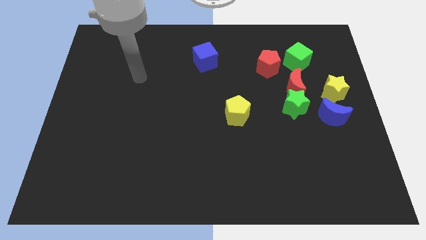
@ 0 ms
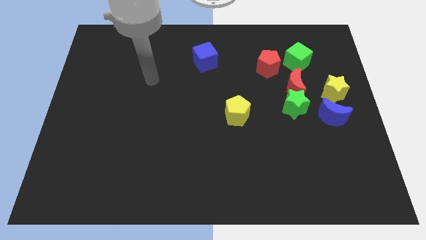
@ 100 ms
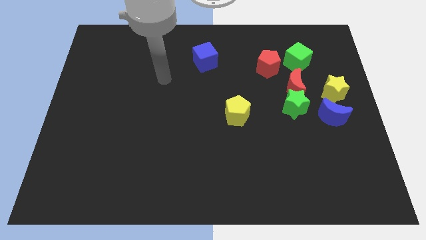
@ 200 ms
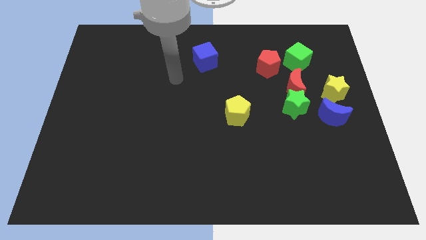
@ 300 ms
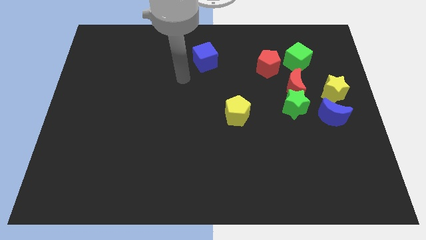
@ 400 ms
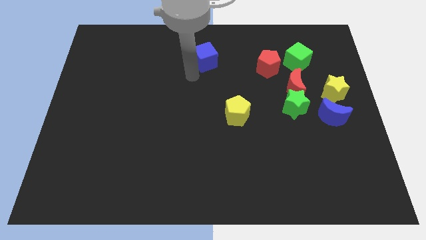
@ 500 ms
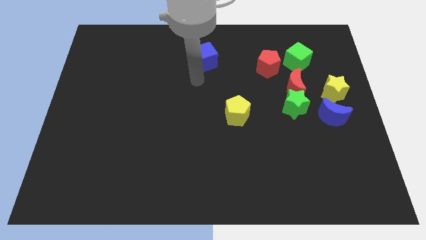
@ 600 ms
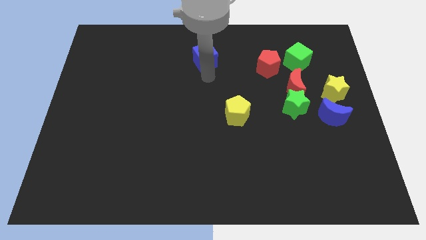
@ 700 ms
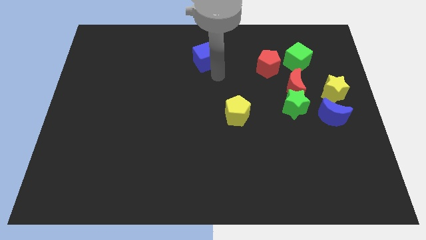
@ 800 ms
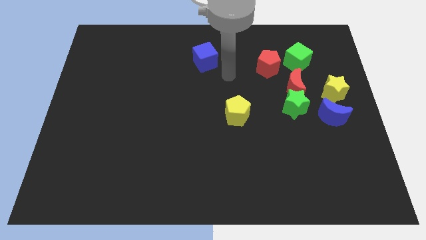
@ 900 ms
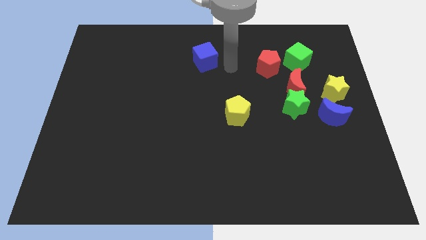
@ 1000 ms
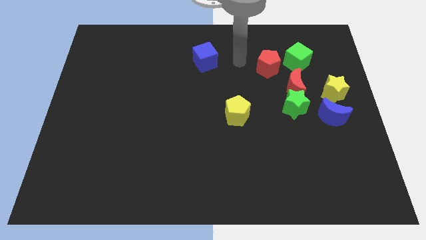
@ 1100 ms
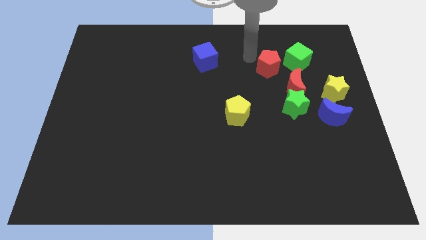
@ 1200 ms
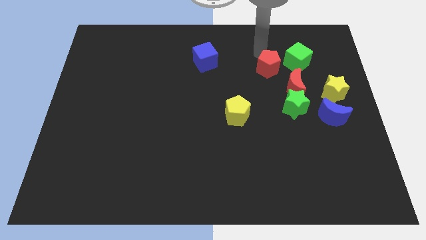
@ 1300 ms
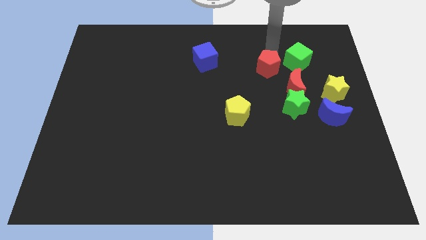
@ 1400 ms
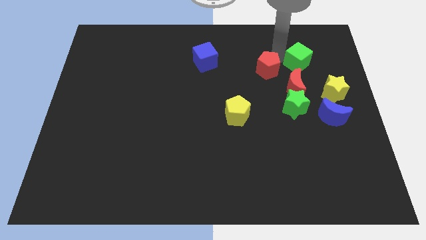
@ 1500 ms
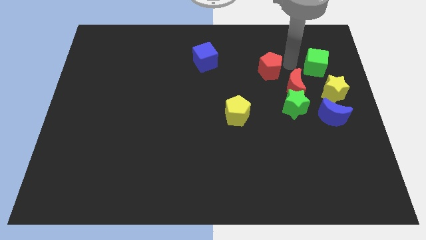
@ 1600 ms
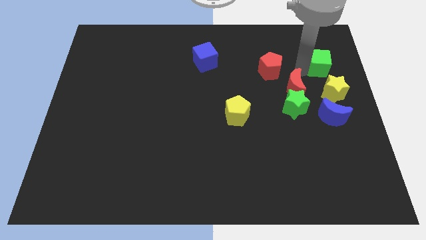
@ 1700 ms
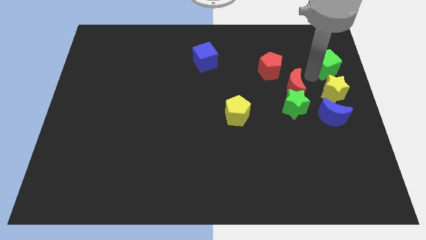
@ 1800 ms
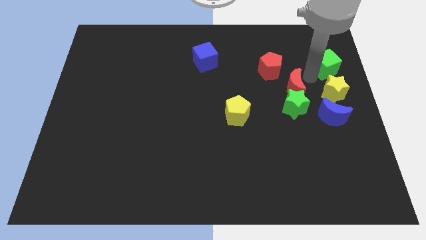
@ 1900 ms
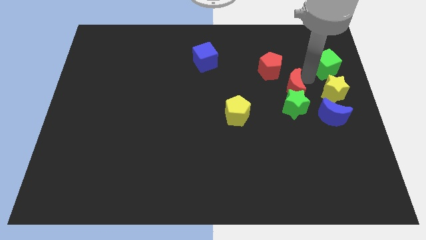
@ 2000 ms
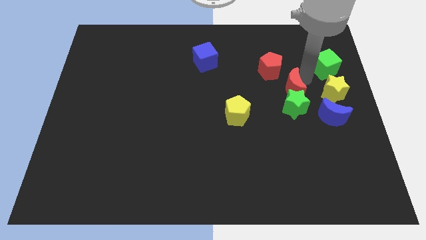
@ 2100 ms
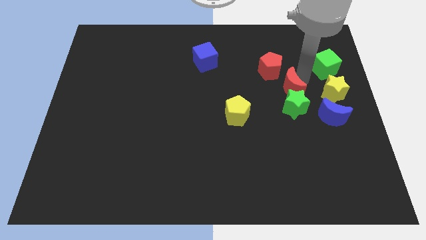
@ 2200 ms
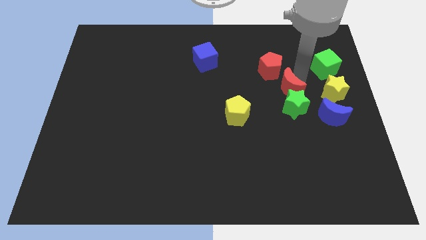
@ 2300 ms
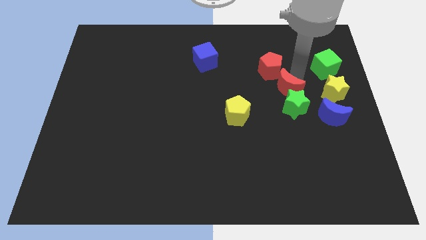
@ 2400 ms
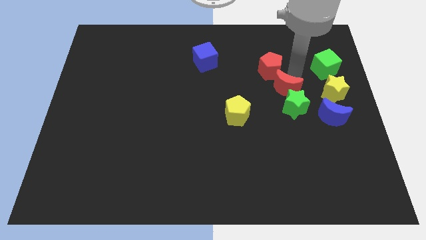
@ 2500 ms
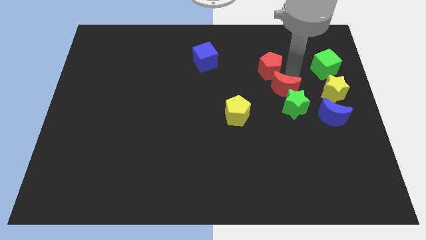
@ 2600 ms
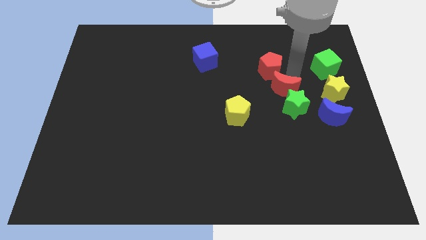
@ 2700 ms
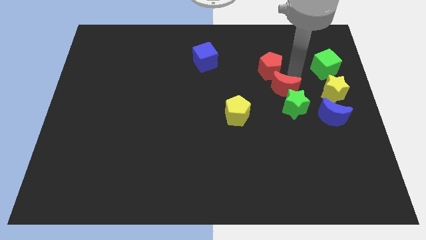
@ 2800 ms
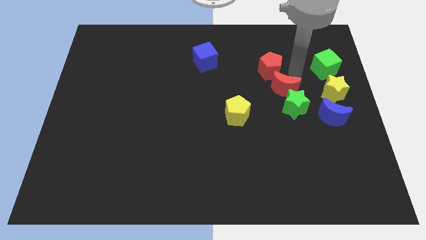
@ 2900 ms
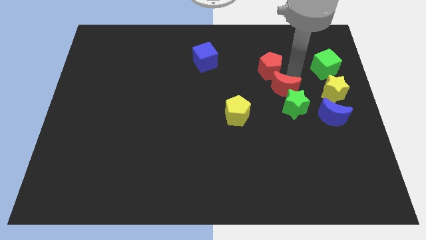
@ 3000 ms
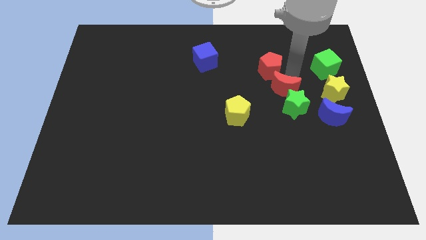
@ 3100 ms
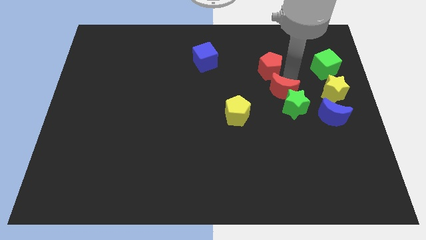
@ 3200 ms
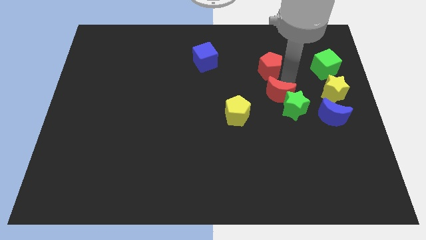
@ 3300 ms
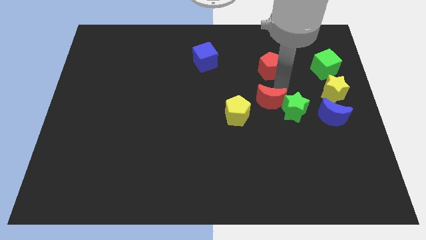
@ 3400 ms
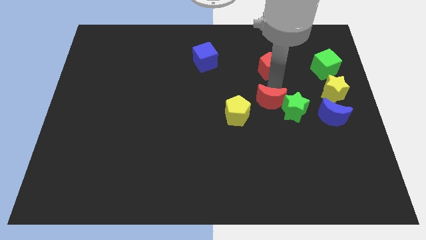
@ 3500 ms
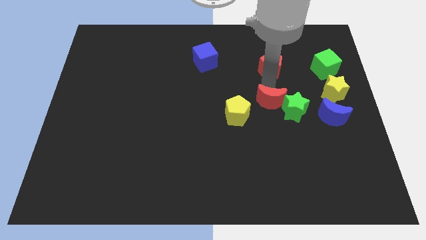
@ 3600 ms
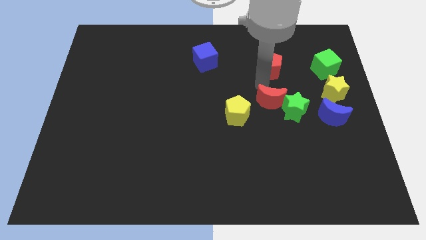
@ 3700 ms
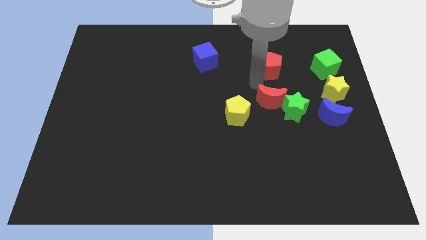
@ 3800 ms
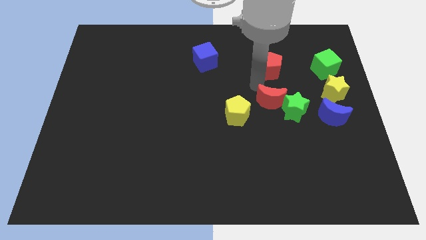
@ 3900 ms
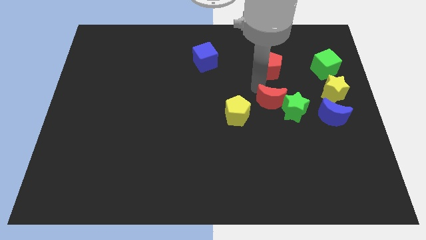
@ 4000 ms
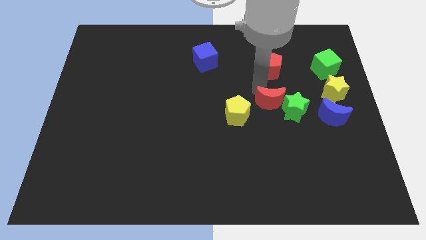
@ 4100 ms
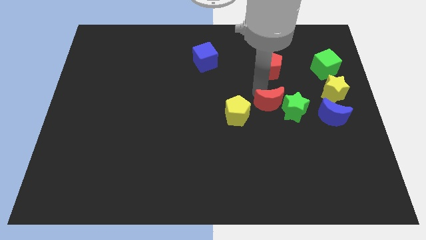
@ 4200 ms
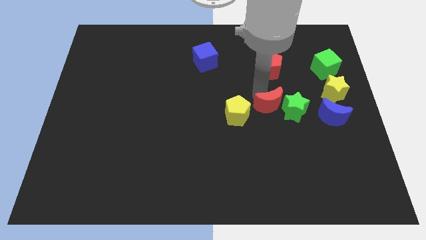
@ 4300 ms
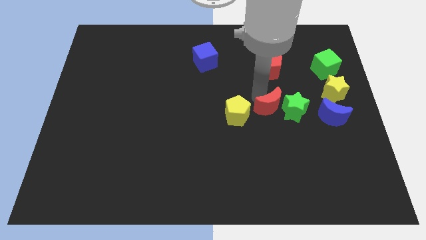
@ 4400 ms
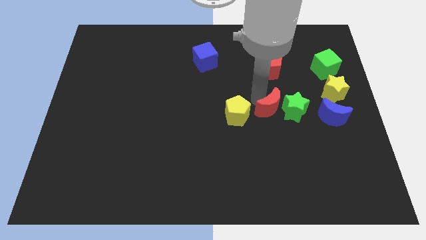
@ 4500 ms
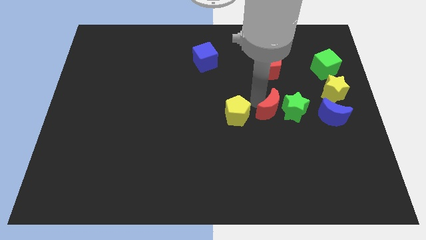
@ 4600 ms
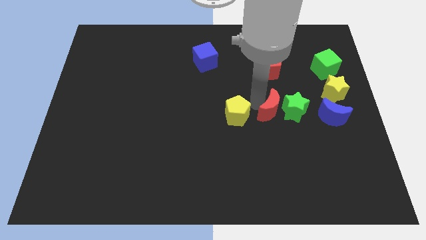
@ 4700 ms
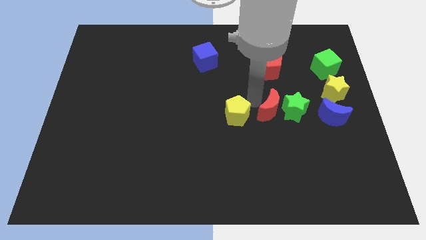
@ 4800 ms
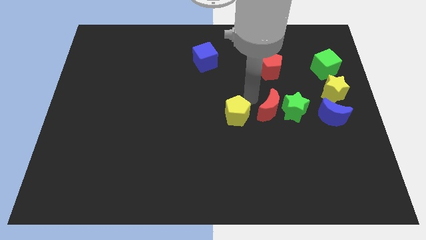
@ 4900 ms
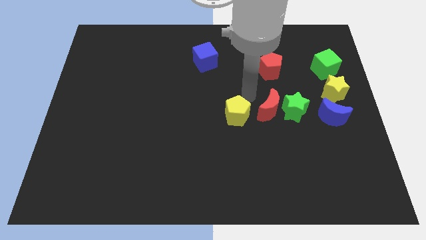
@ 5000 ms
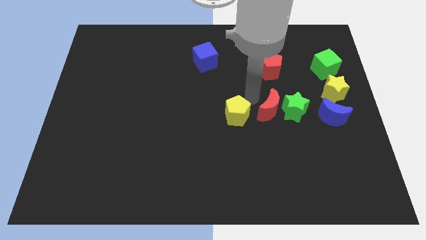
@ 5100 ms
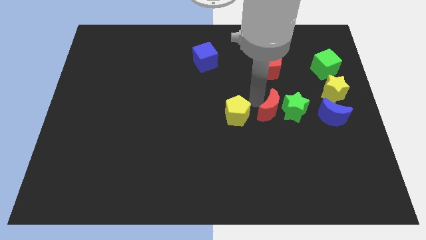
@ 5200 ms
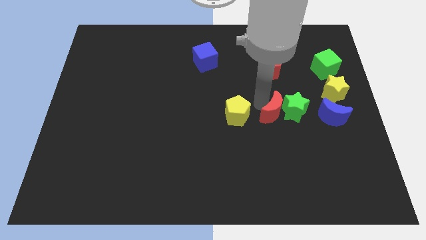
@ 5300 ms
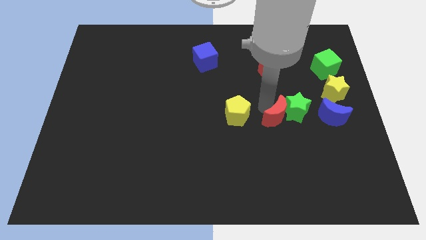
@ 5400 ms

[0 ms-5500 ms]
slightly move the red moon downwards

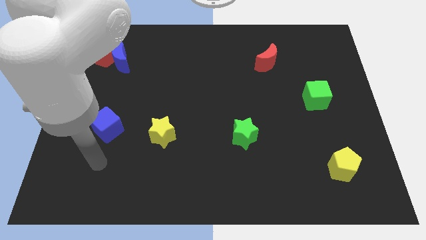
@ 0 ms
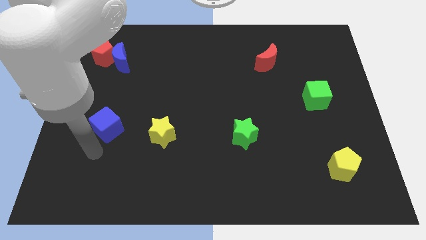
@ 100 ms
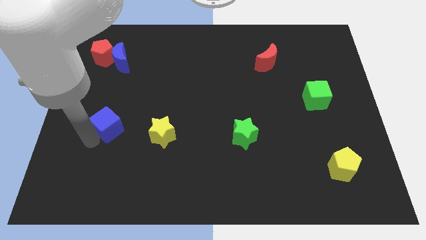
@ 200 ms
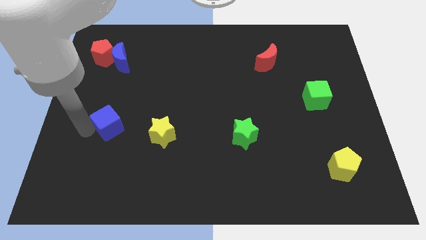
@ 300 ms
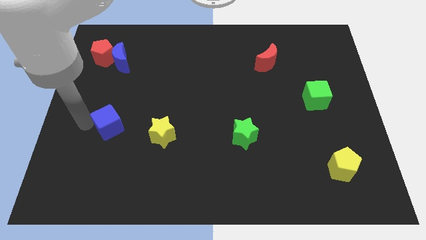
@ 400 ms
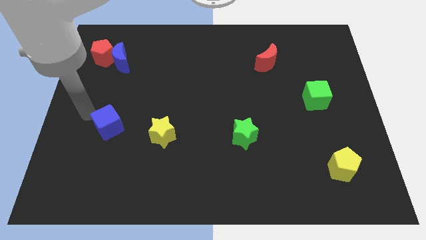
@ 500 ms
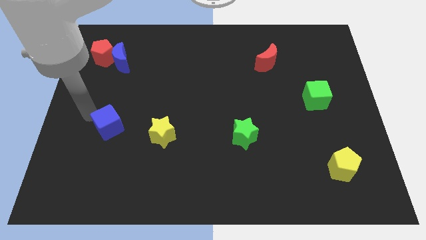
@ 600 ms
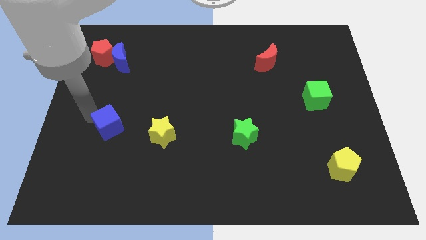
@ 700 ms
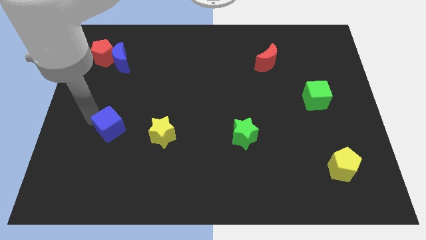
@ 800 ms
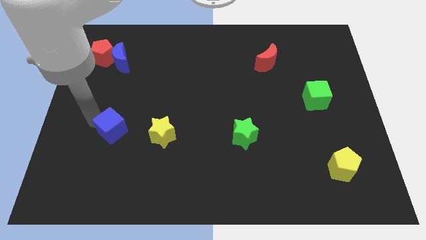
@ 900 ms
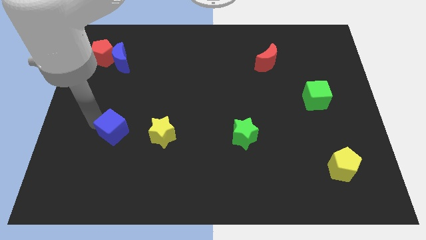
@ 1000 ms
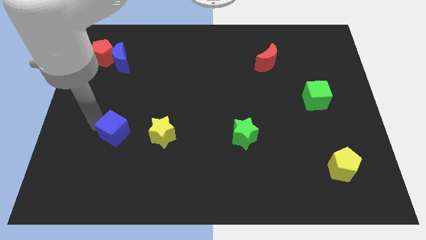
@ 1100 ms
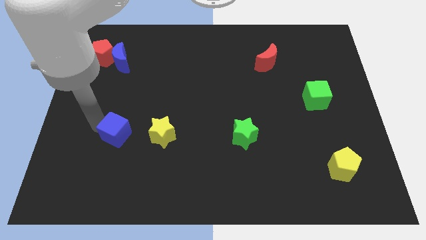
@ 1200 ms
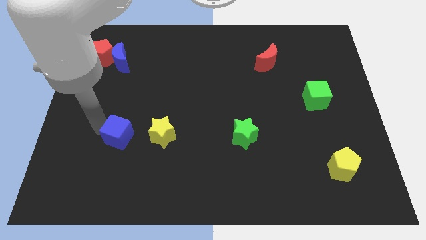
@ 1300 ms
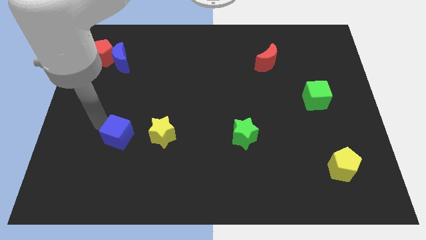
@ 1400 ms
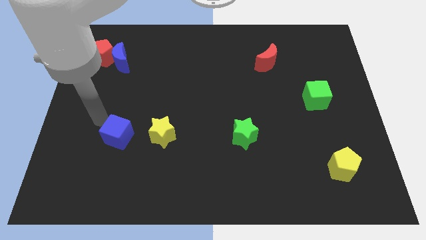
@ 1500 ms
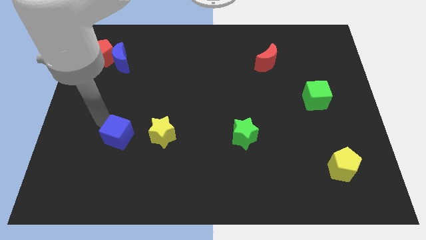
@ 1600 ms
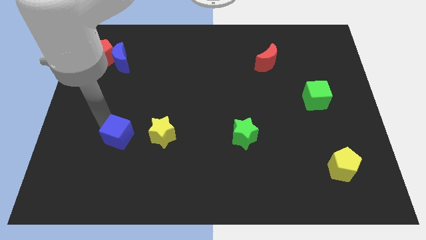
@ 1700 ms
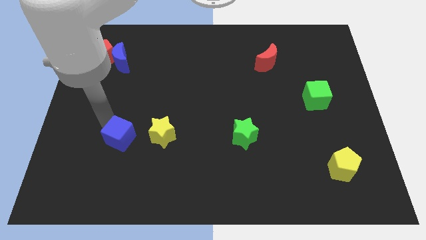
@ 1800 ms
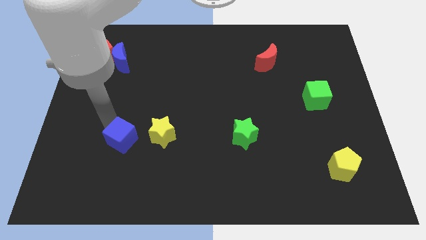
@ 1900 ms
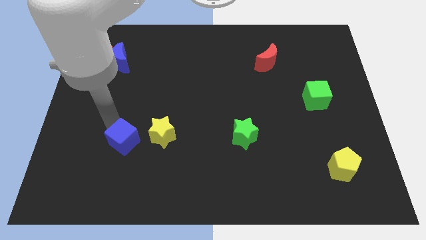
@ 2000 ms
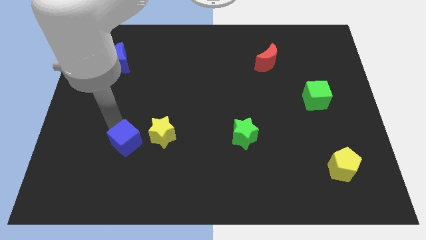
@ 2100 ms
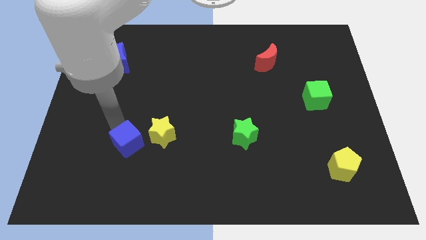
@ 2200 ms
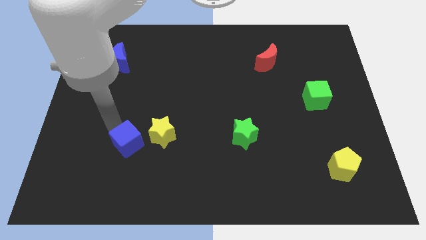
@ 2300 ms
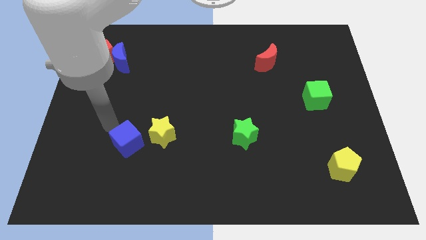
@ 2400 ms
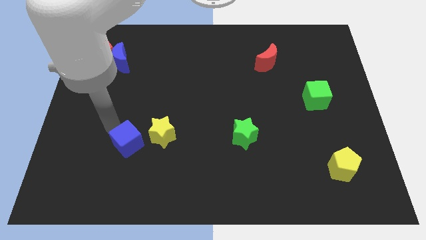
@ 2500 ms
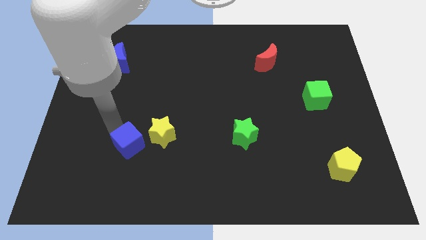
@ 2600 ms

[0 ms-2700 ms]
slide the blue cube a bit diagonally downwards and right
